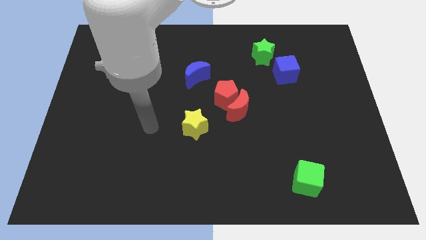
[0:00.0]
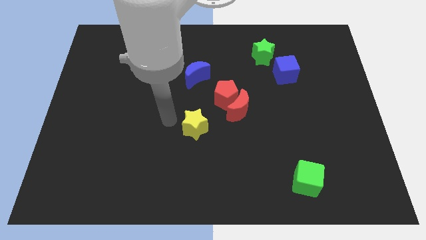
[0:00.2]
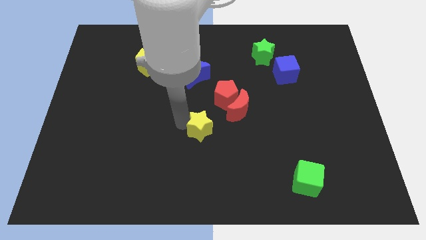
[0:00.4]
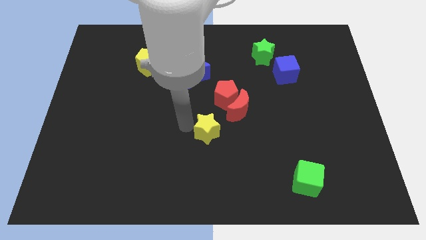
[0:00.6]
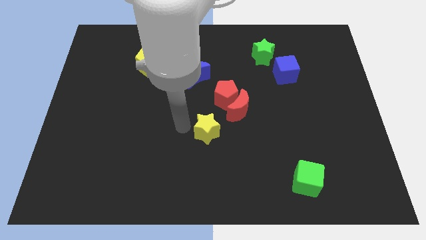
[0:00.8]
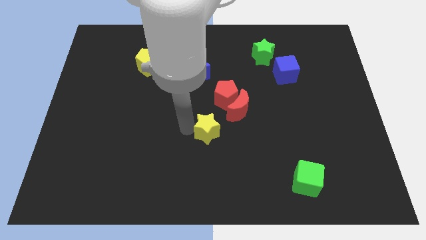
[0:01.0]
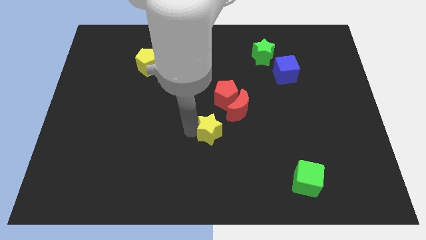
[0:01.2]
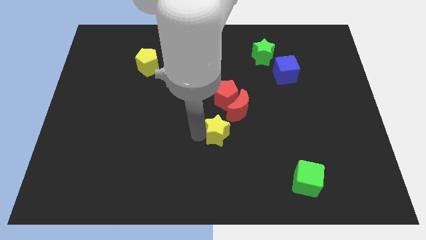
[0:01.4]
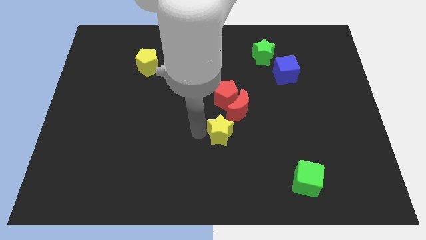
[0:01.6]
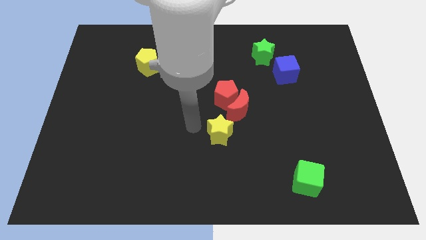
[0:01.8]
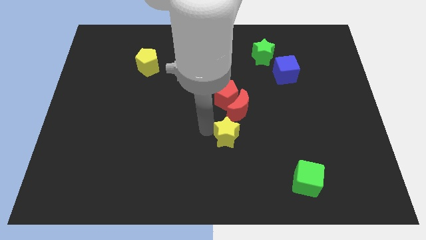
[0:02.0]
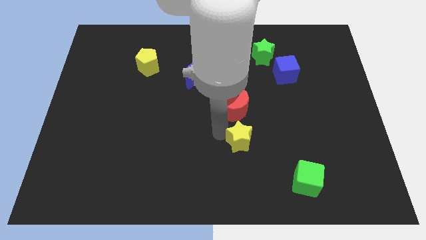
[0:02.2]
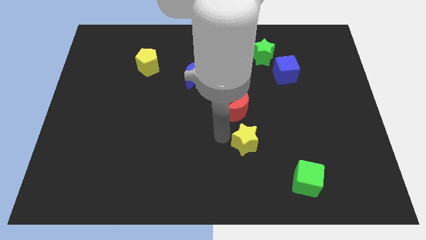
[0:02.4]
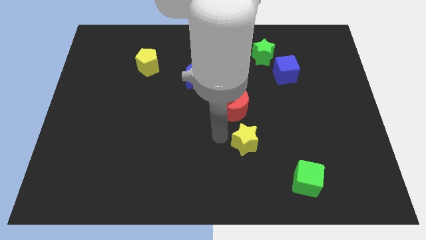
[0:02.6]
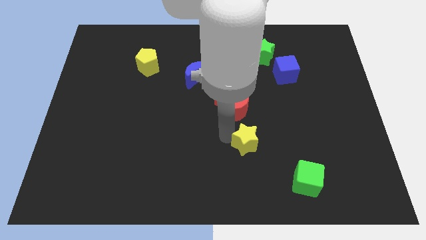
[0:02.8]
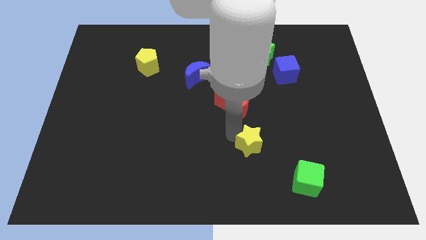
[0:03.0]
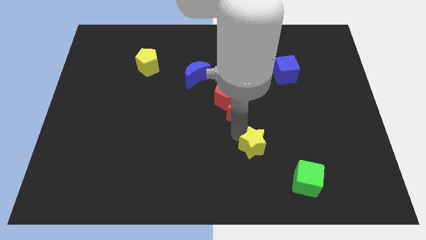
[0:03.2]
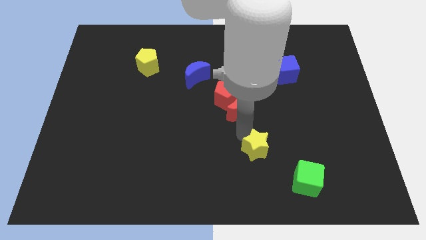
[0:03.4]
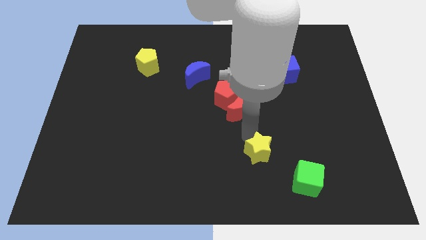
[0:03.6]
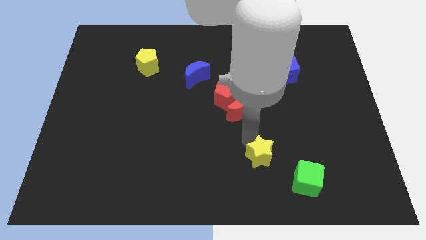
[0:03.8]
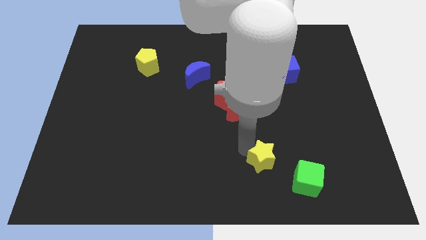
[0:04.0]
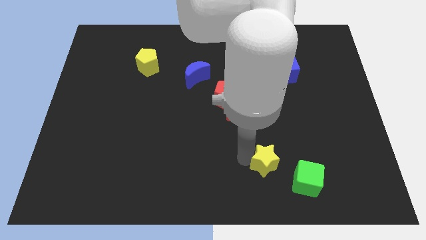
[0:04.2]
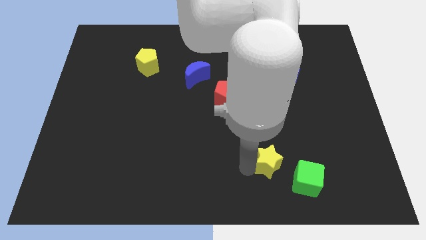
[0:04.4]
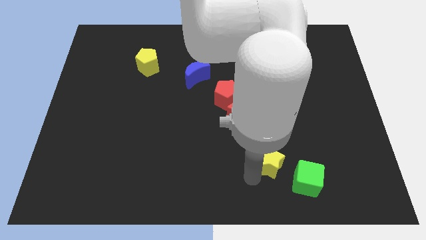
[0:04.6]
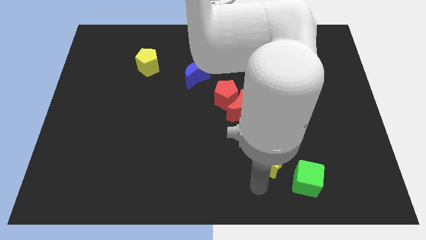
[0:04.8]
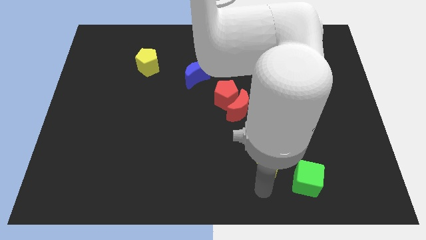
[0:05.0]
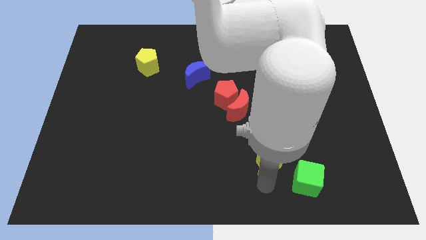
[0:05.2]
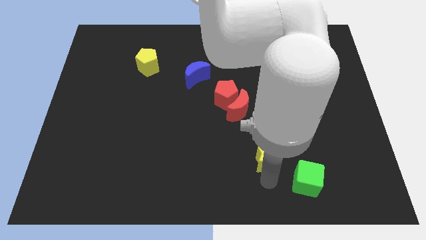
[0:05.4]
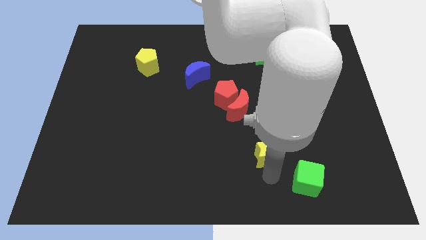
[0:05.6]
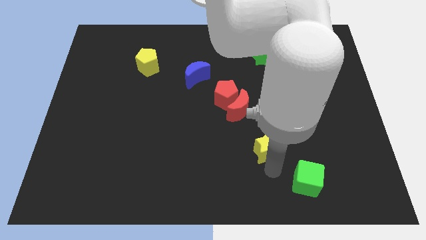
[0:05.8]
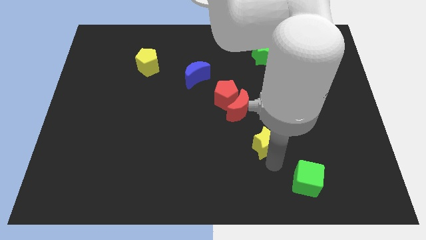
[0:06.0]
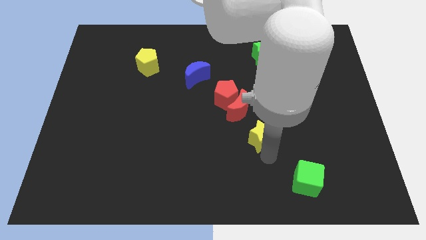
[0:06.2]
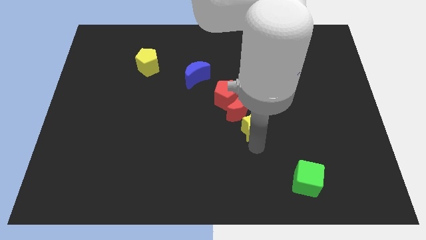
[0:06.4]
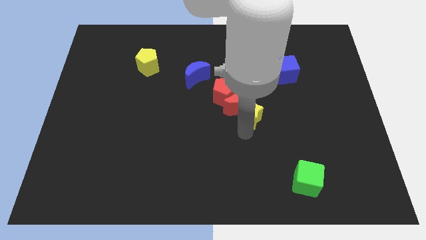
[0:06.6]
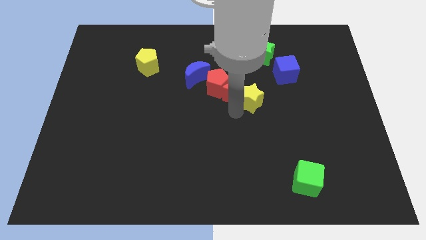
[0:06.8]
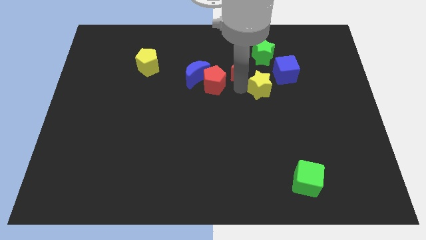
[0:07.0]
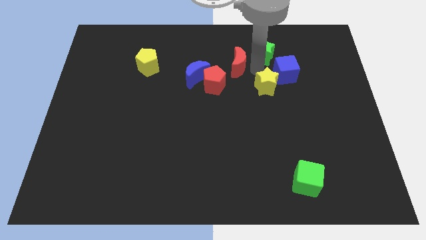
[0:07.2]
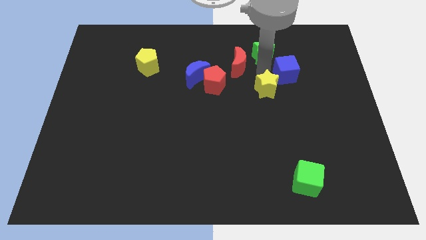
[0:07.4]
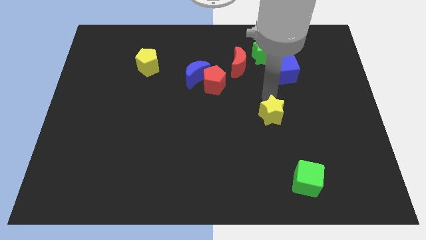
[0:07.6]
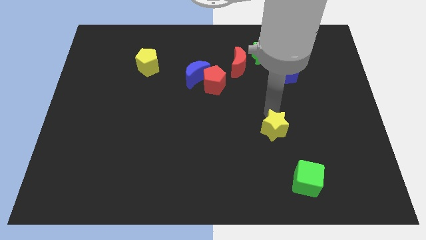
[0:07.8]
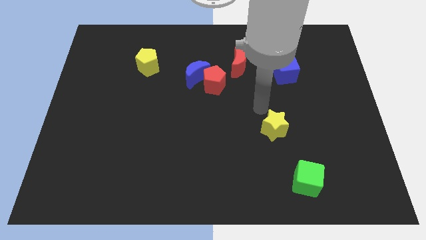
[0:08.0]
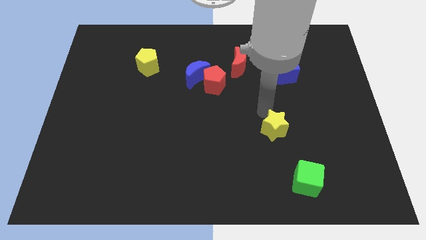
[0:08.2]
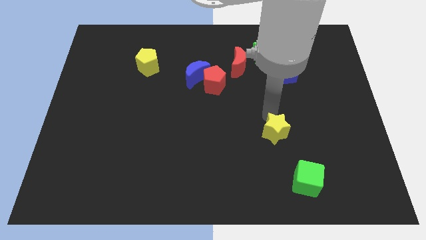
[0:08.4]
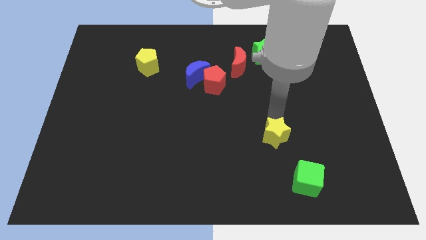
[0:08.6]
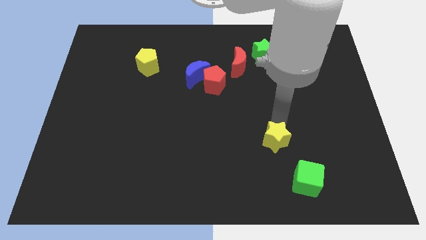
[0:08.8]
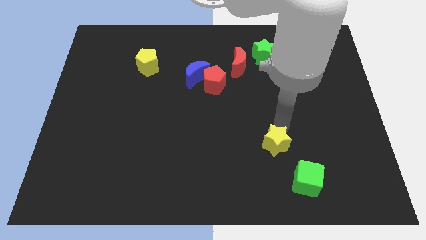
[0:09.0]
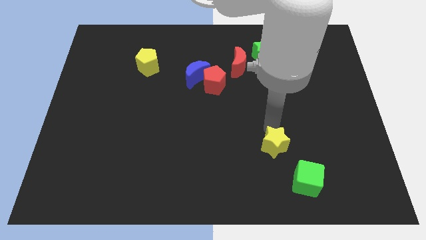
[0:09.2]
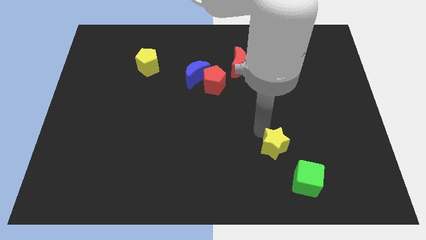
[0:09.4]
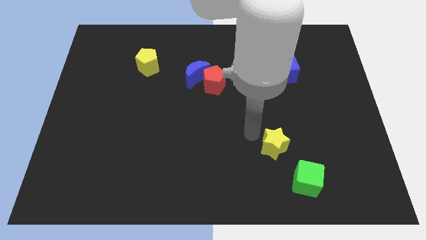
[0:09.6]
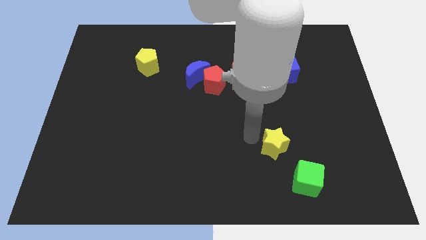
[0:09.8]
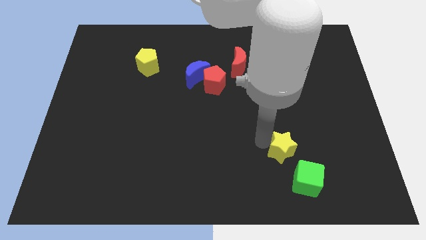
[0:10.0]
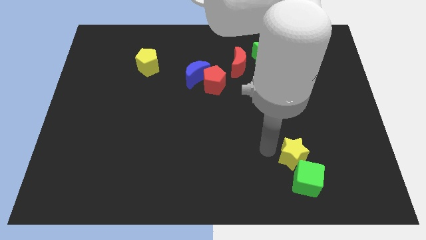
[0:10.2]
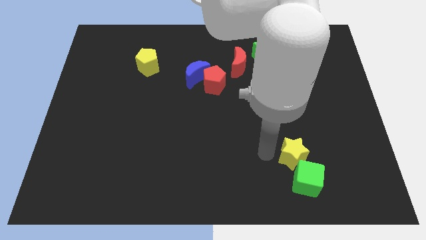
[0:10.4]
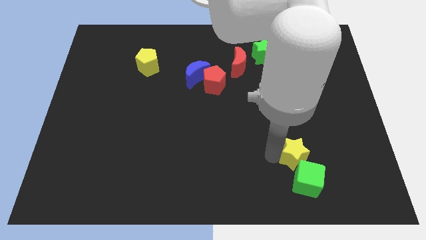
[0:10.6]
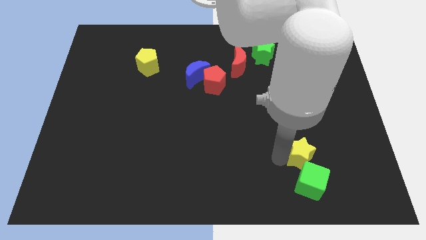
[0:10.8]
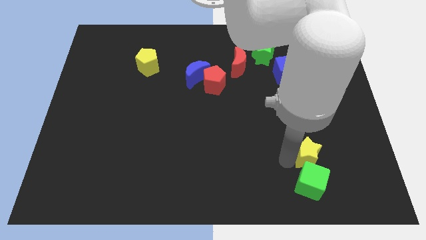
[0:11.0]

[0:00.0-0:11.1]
put the yellow star to the top right side of the green cube
